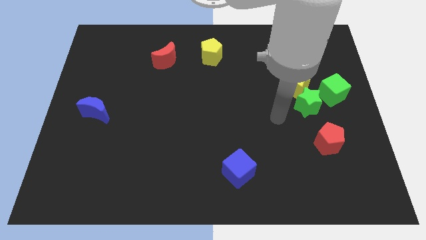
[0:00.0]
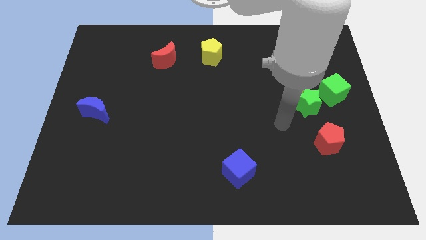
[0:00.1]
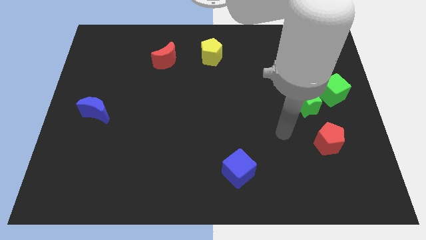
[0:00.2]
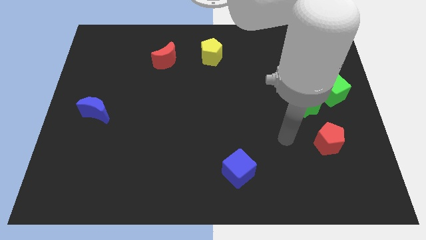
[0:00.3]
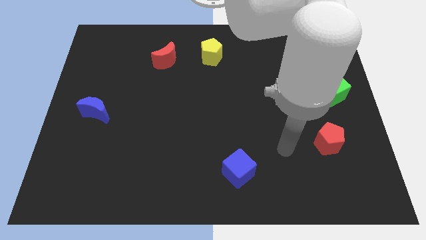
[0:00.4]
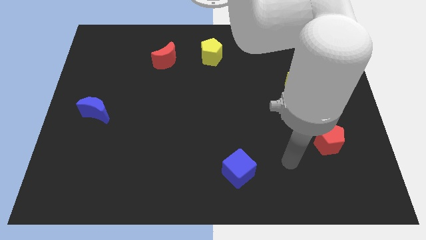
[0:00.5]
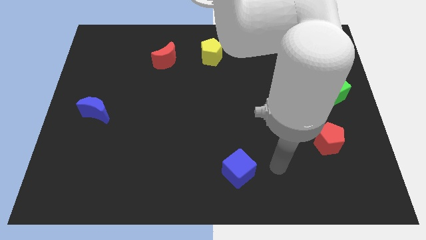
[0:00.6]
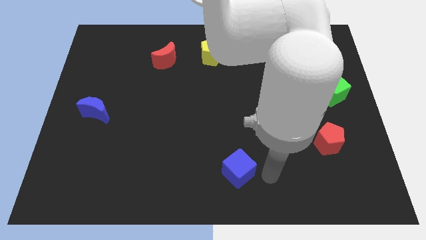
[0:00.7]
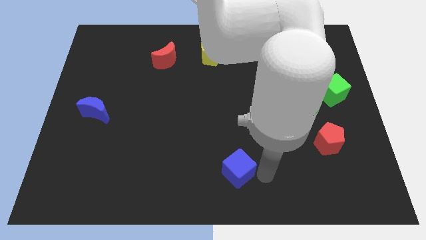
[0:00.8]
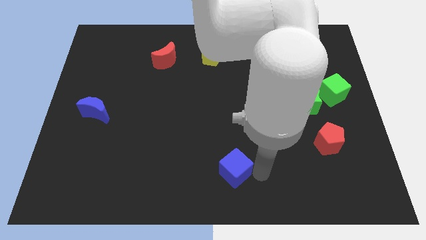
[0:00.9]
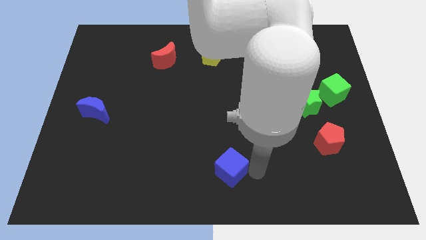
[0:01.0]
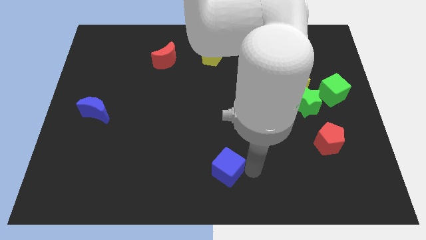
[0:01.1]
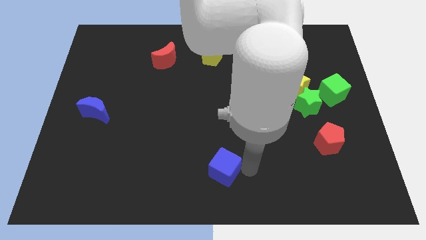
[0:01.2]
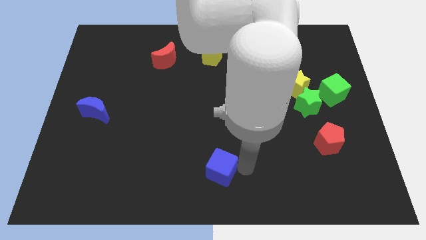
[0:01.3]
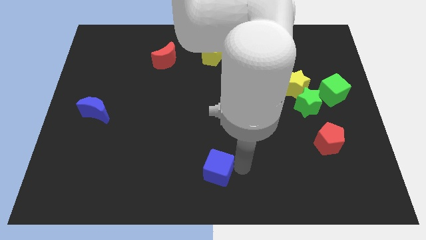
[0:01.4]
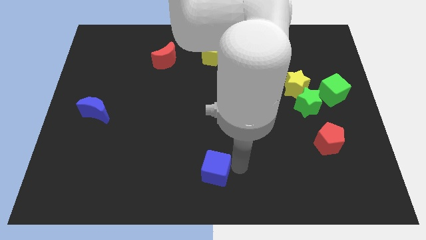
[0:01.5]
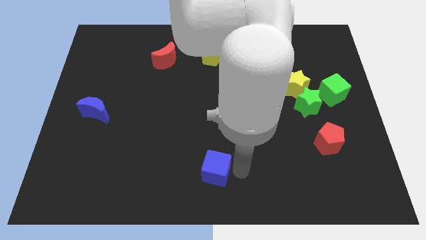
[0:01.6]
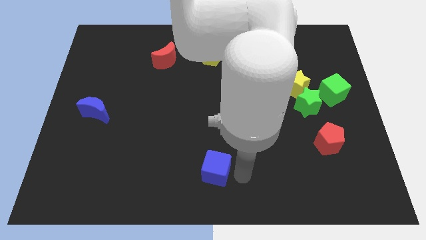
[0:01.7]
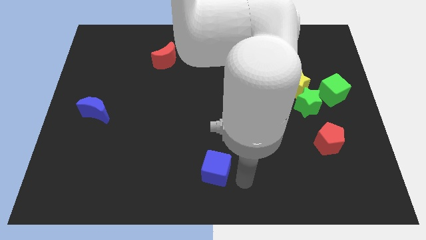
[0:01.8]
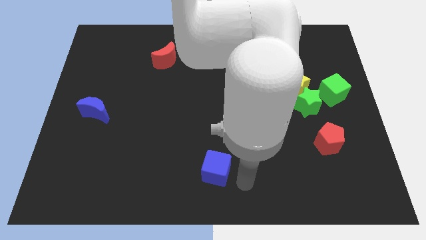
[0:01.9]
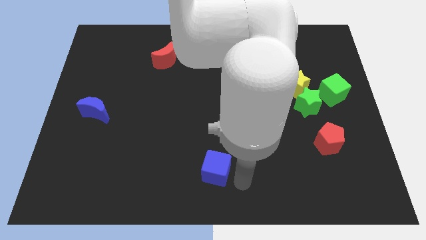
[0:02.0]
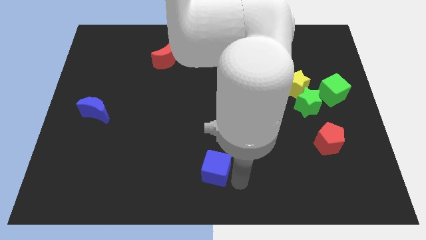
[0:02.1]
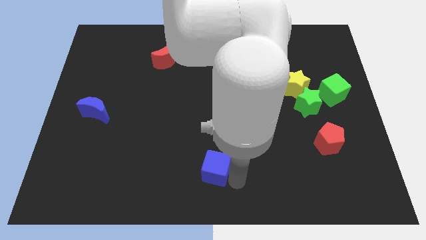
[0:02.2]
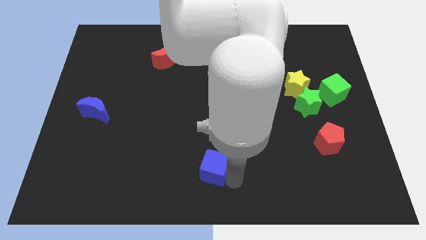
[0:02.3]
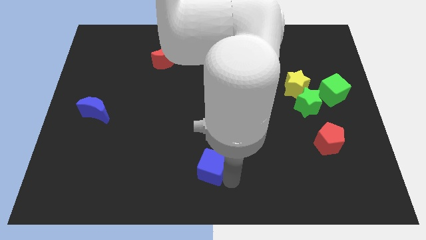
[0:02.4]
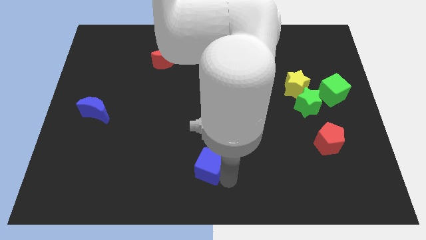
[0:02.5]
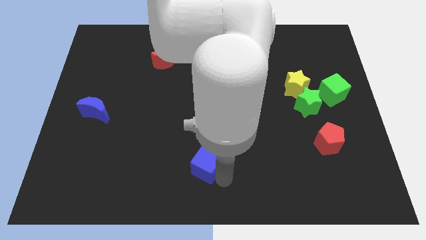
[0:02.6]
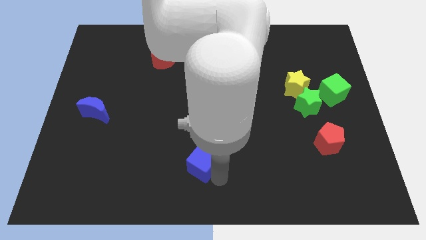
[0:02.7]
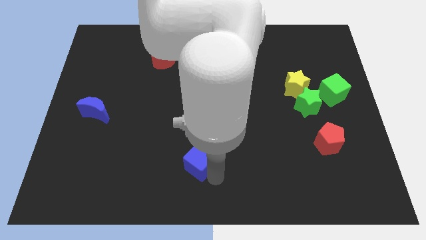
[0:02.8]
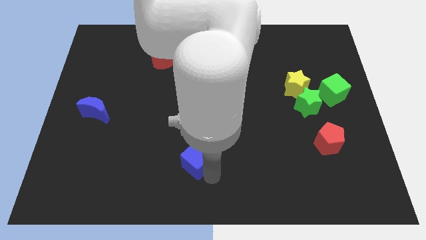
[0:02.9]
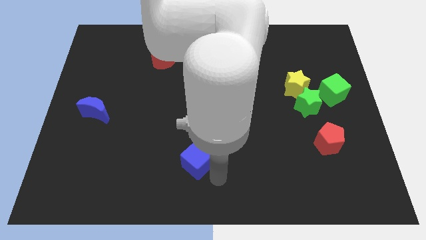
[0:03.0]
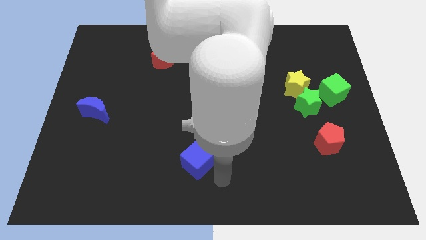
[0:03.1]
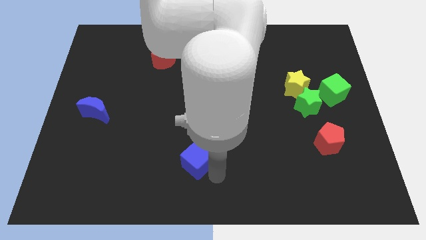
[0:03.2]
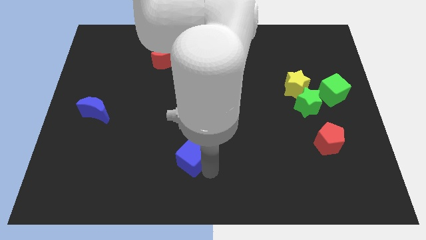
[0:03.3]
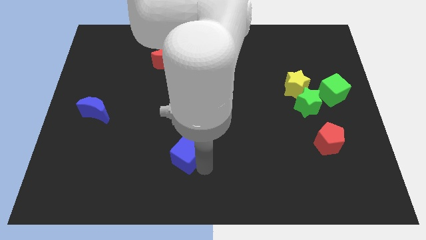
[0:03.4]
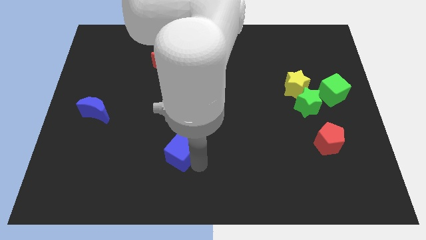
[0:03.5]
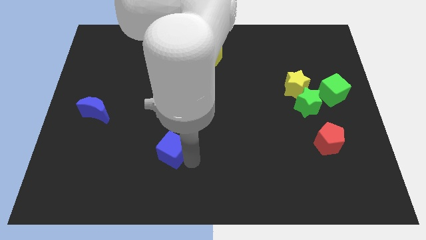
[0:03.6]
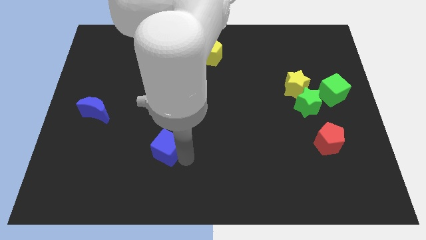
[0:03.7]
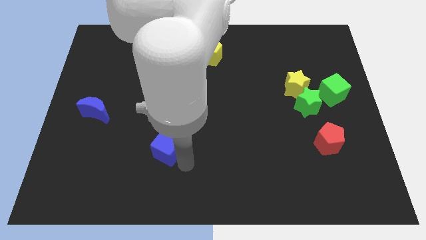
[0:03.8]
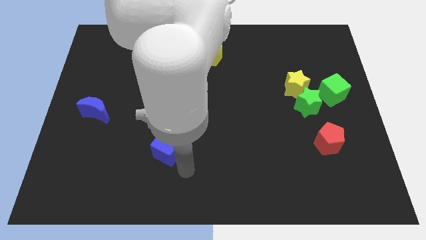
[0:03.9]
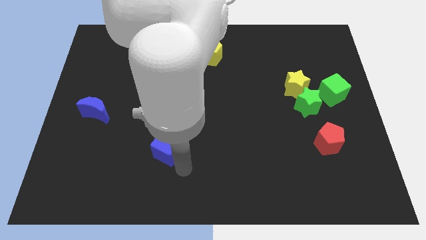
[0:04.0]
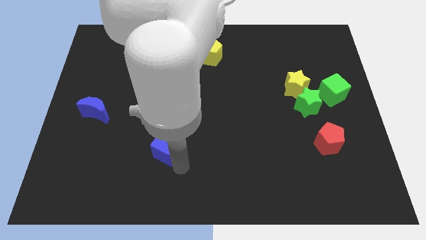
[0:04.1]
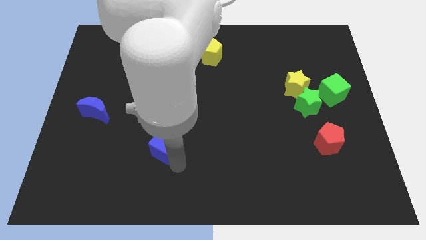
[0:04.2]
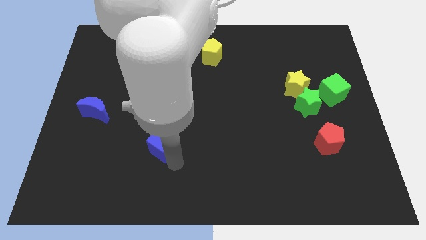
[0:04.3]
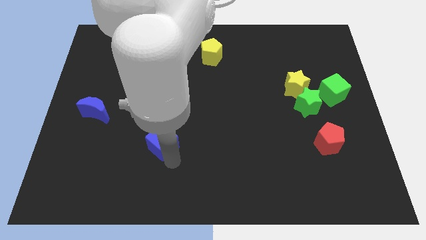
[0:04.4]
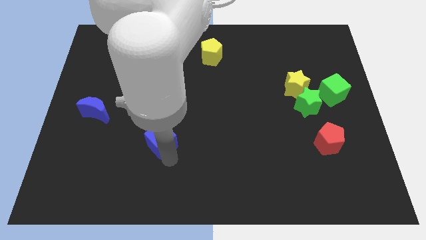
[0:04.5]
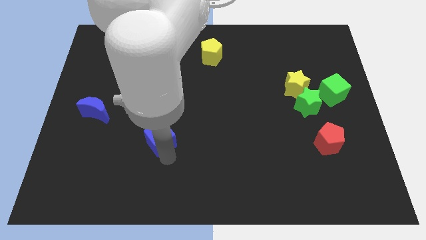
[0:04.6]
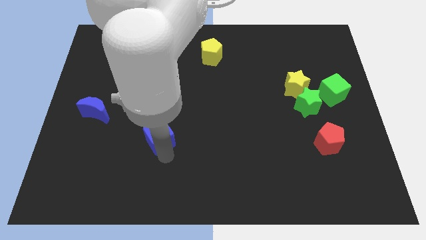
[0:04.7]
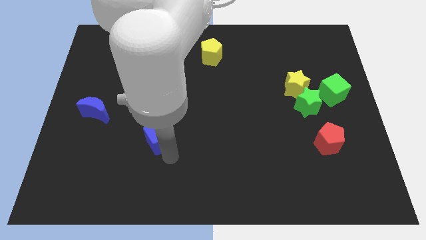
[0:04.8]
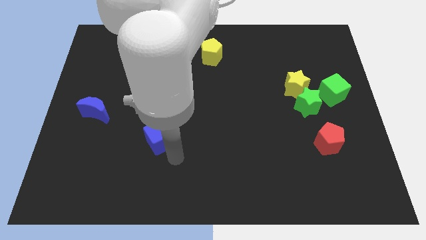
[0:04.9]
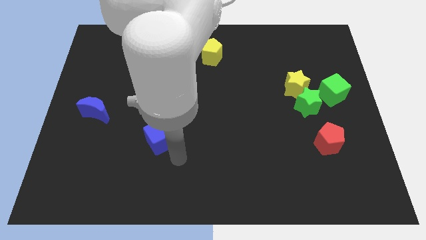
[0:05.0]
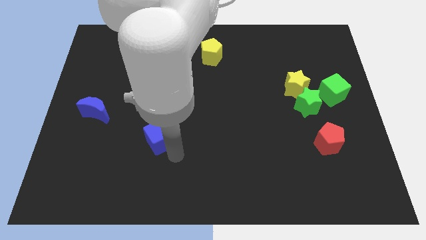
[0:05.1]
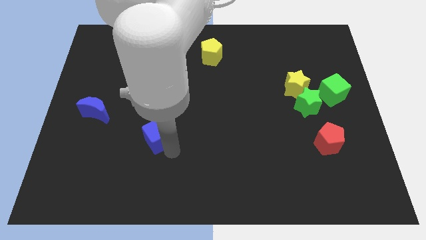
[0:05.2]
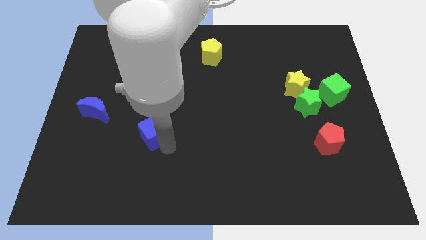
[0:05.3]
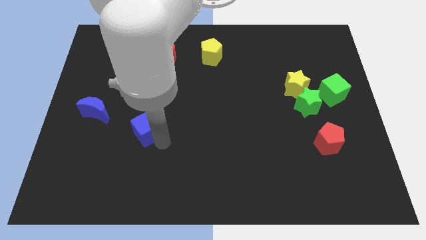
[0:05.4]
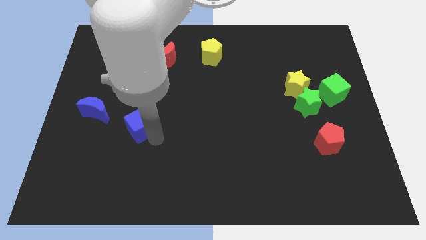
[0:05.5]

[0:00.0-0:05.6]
push the blue cube to the right of the blue moon

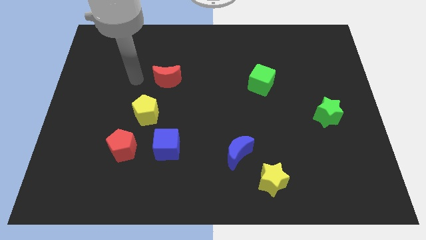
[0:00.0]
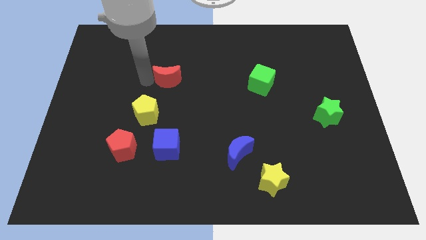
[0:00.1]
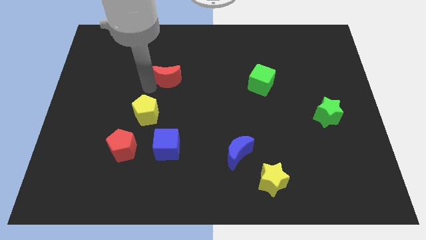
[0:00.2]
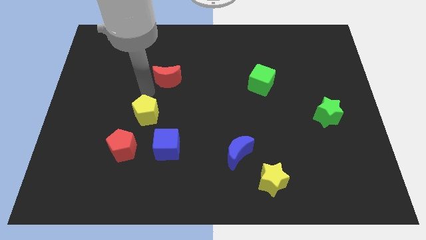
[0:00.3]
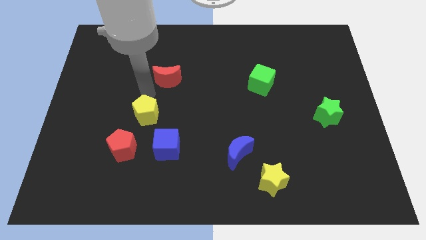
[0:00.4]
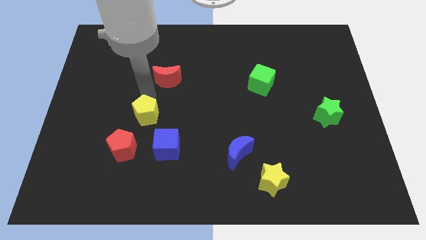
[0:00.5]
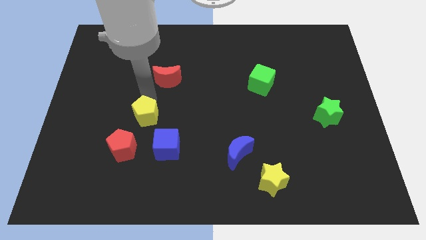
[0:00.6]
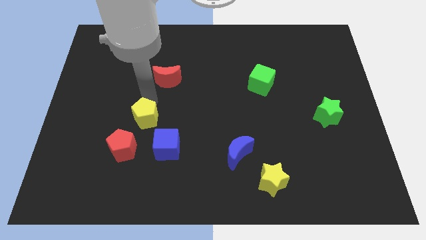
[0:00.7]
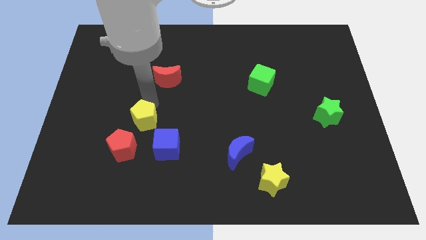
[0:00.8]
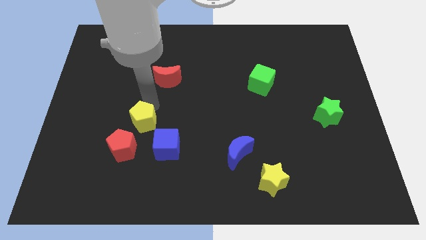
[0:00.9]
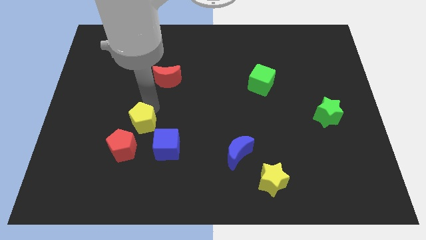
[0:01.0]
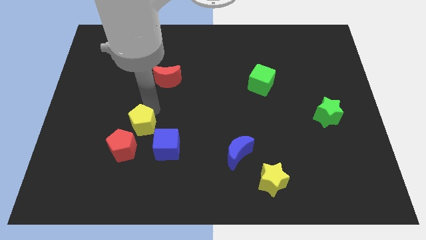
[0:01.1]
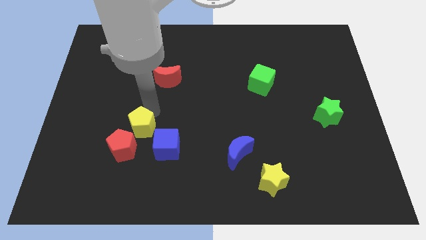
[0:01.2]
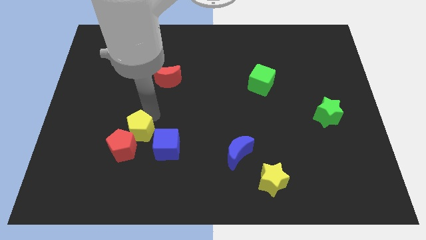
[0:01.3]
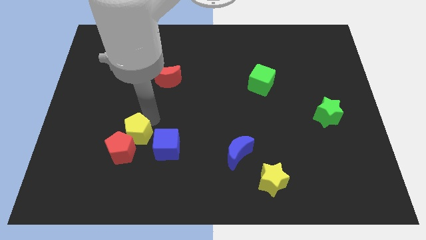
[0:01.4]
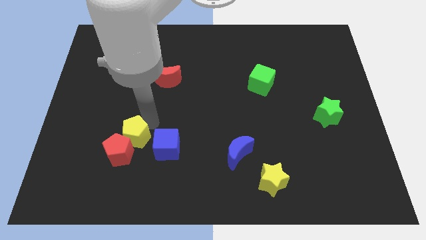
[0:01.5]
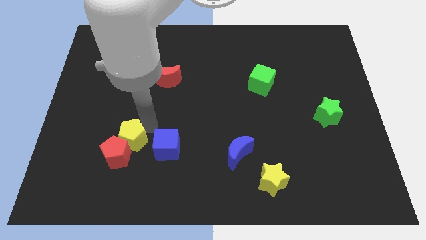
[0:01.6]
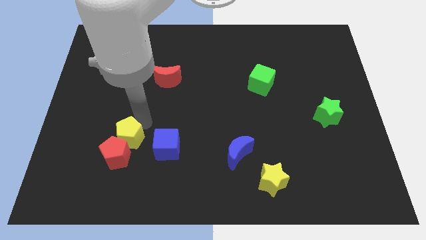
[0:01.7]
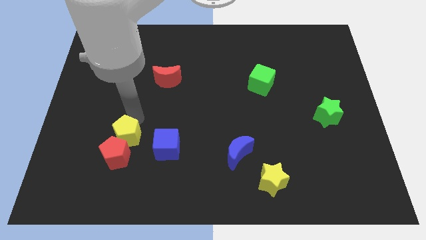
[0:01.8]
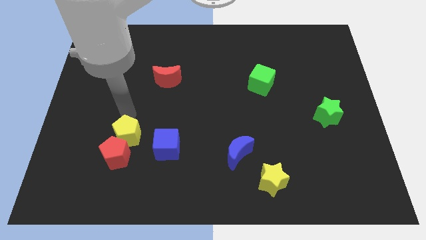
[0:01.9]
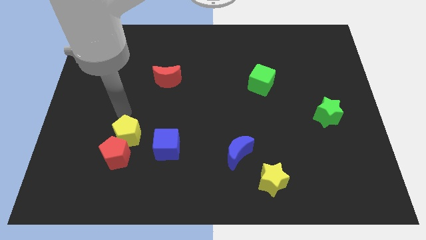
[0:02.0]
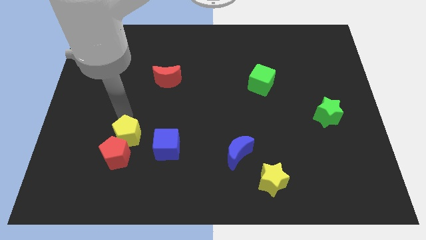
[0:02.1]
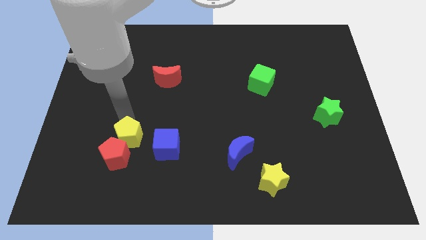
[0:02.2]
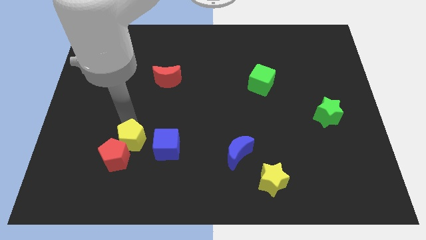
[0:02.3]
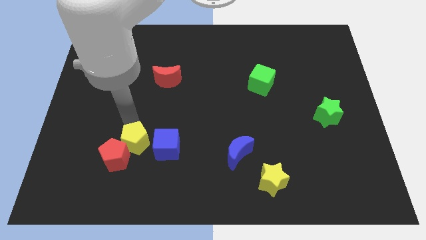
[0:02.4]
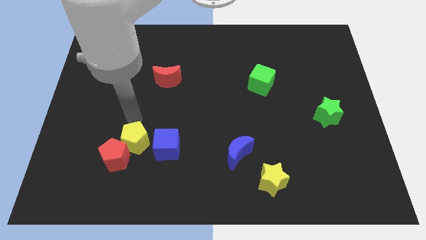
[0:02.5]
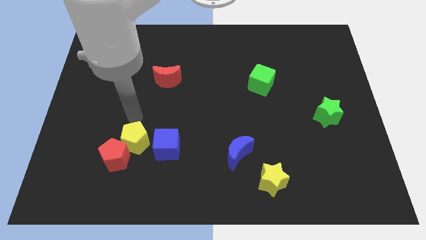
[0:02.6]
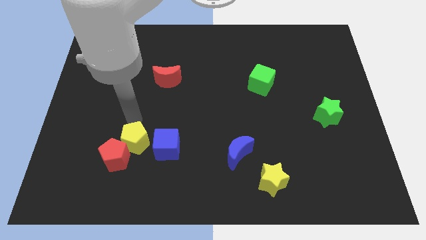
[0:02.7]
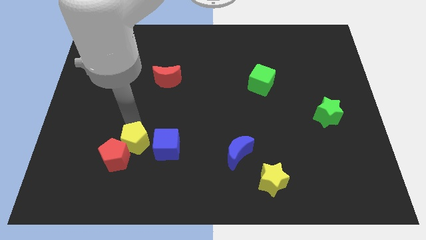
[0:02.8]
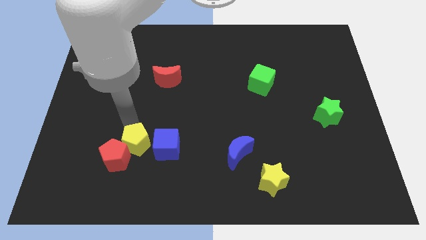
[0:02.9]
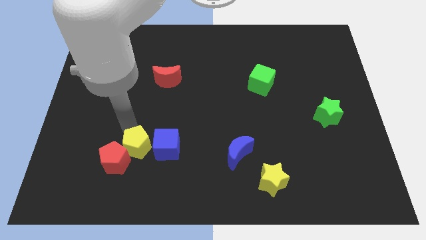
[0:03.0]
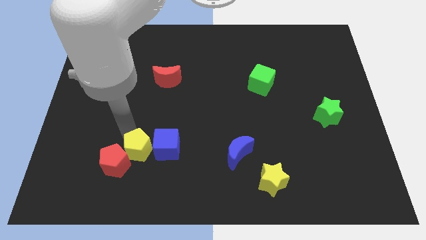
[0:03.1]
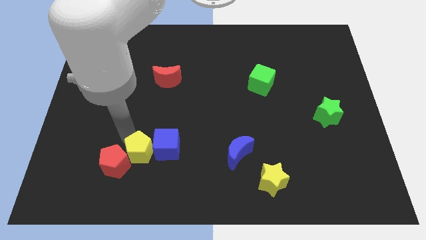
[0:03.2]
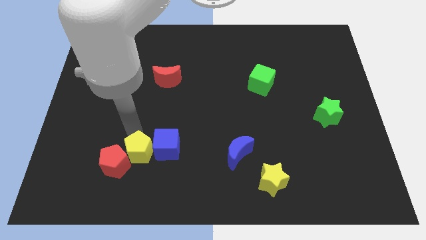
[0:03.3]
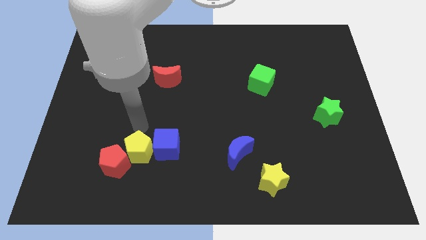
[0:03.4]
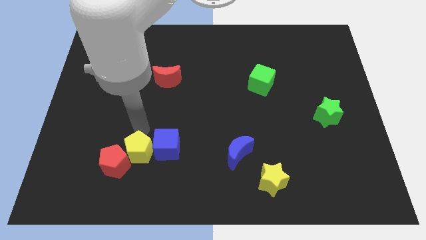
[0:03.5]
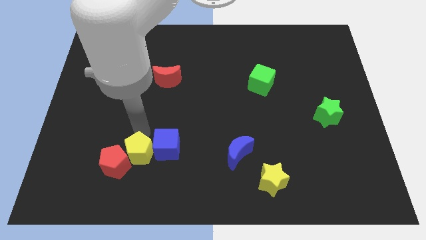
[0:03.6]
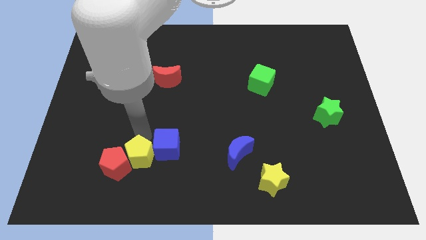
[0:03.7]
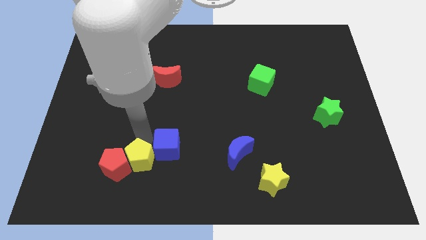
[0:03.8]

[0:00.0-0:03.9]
slide the yellow pentagon to the bottom right of the red pentagon
